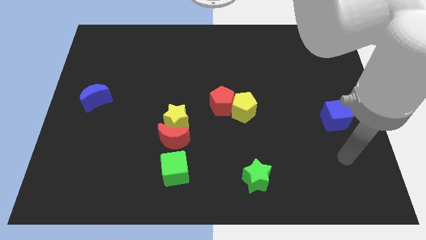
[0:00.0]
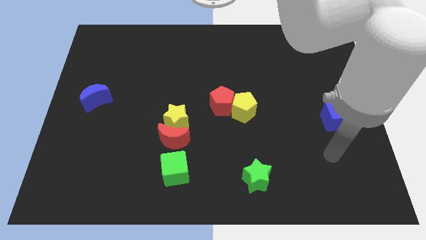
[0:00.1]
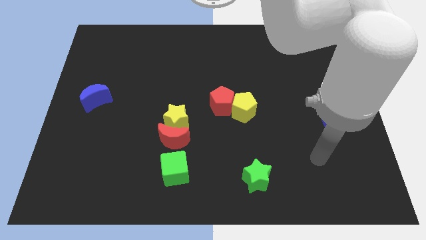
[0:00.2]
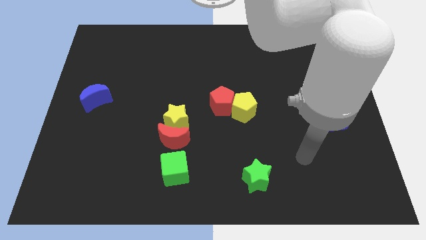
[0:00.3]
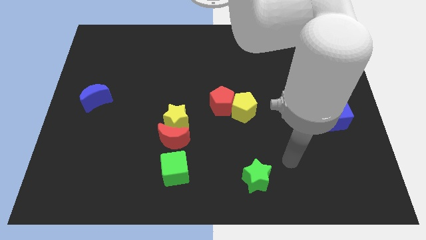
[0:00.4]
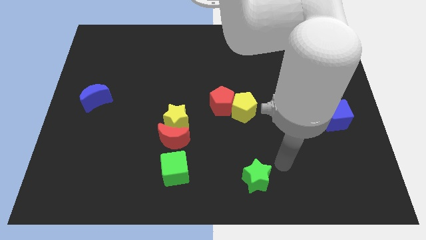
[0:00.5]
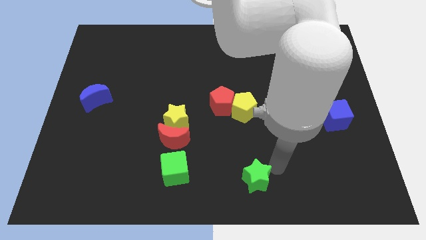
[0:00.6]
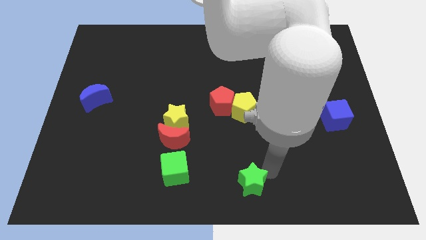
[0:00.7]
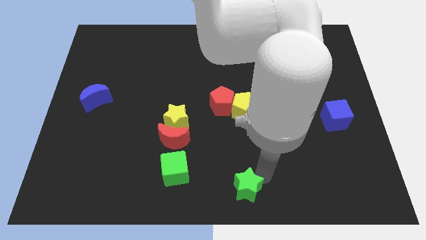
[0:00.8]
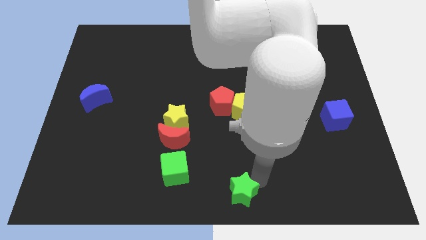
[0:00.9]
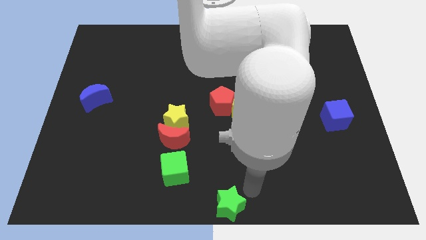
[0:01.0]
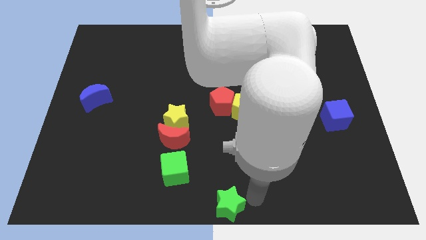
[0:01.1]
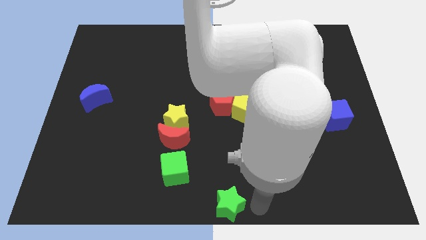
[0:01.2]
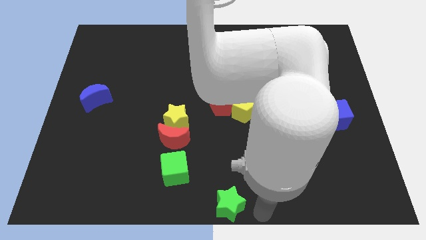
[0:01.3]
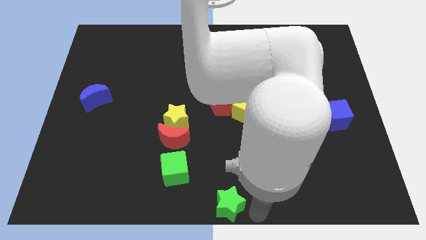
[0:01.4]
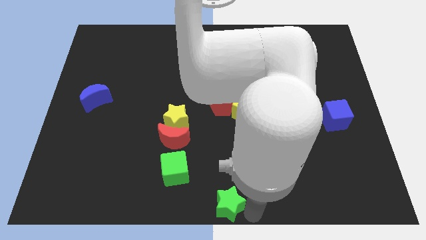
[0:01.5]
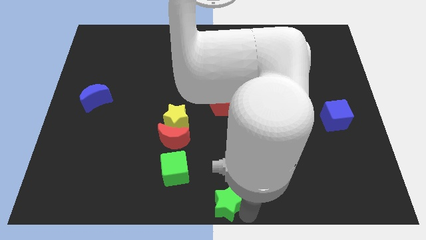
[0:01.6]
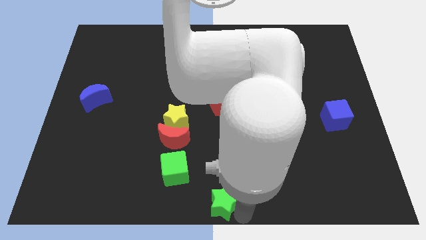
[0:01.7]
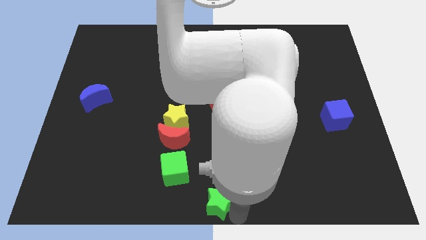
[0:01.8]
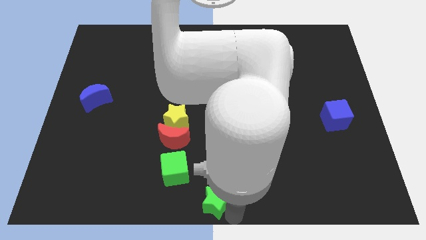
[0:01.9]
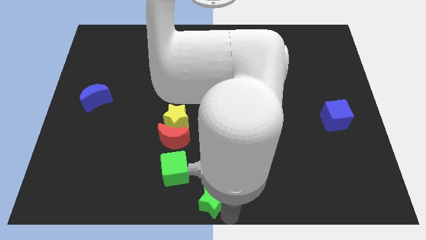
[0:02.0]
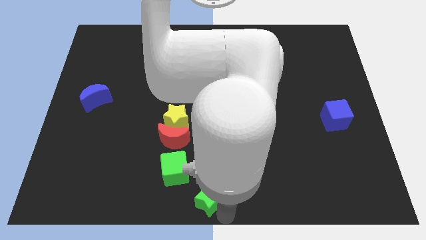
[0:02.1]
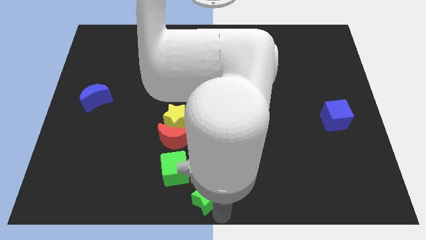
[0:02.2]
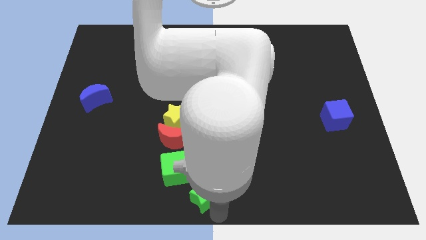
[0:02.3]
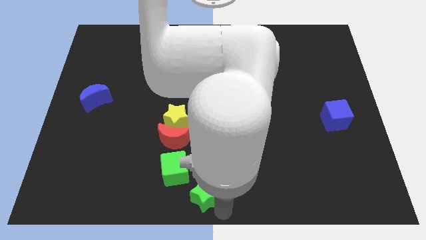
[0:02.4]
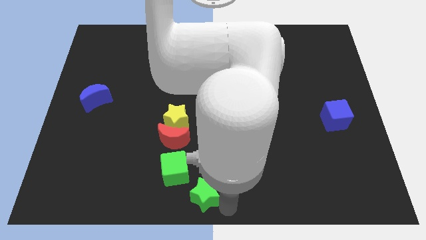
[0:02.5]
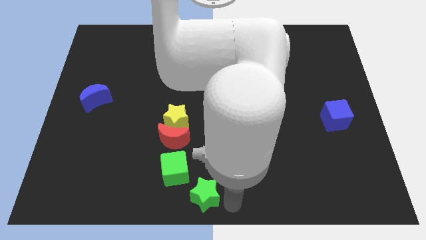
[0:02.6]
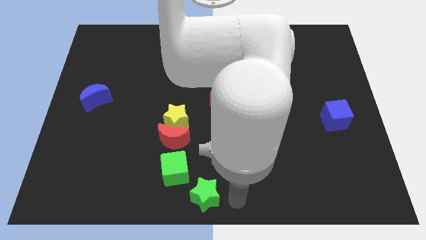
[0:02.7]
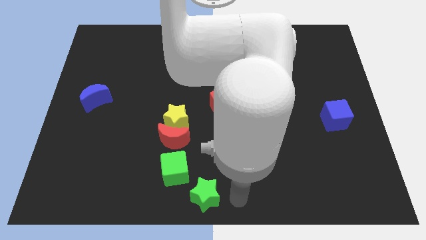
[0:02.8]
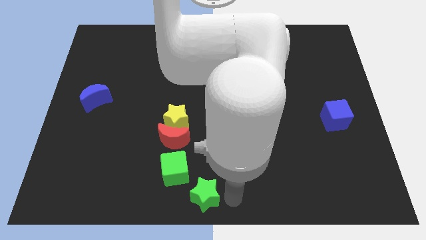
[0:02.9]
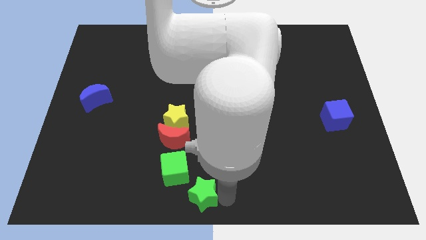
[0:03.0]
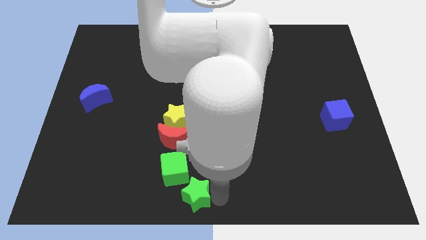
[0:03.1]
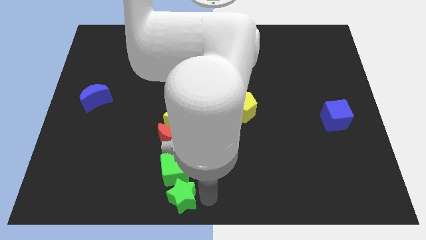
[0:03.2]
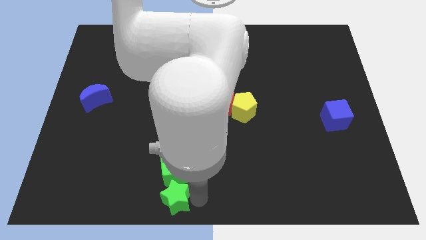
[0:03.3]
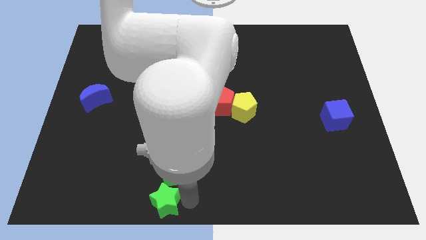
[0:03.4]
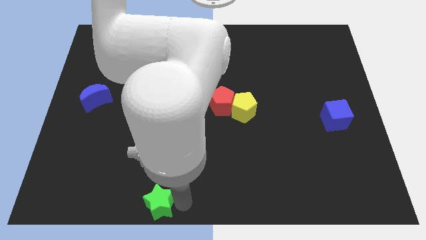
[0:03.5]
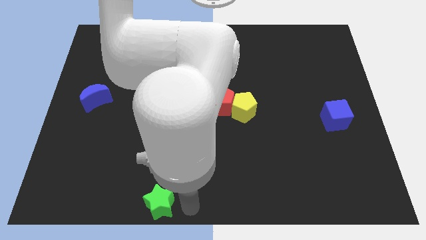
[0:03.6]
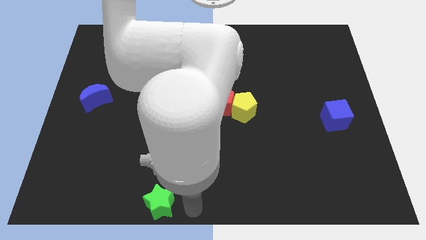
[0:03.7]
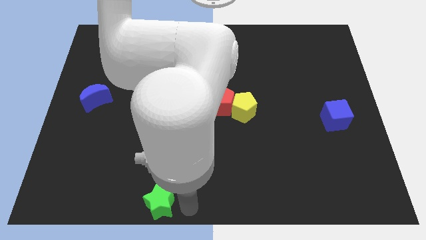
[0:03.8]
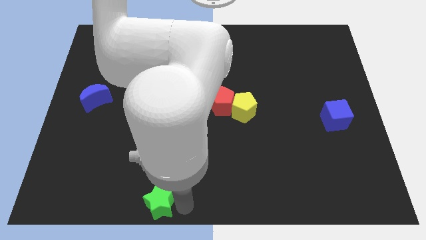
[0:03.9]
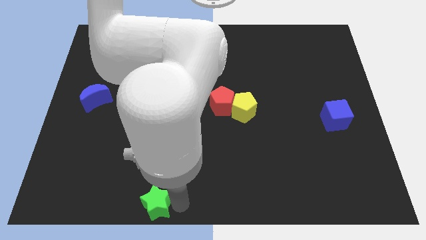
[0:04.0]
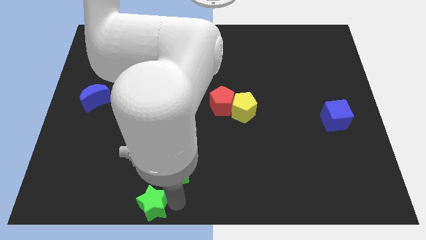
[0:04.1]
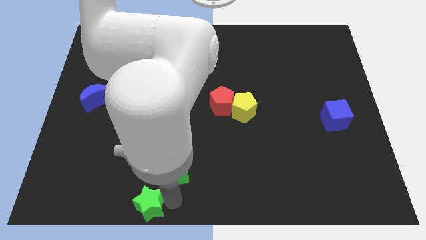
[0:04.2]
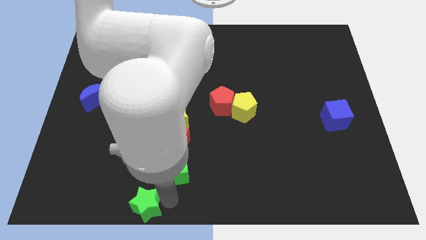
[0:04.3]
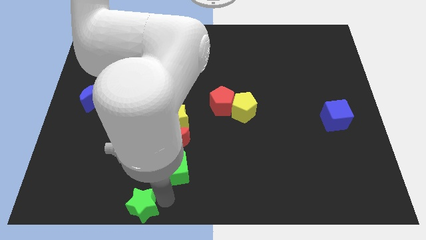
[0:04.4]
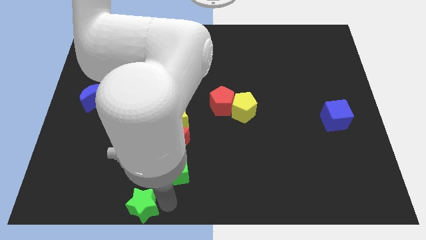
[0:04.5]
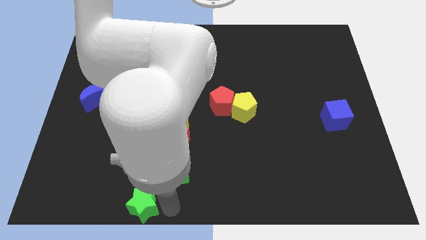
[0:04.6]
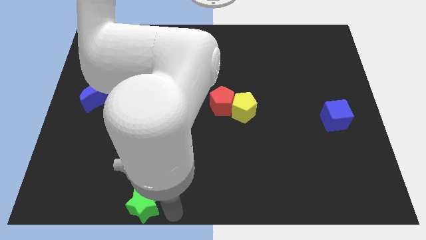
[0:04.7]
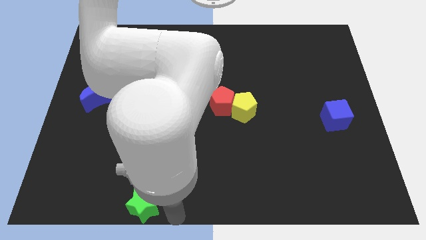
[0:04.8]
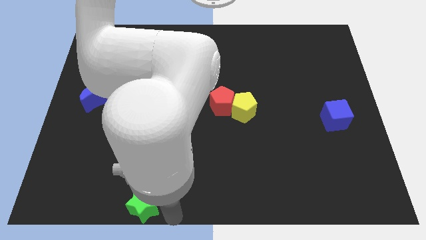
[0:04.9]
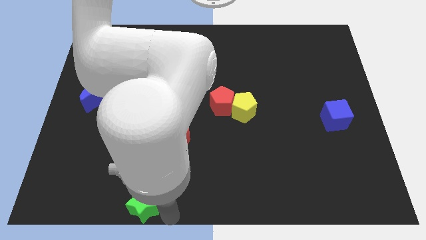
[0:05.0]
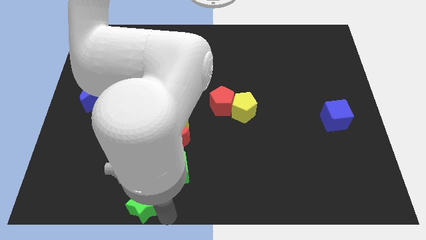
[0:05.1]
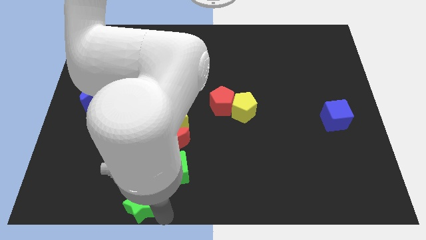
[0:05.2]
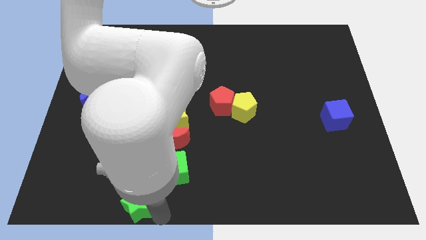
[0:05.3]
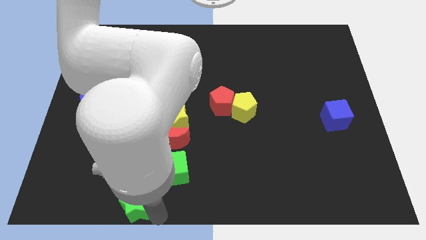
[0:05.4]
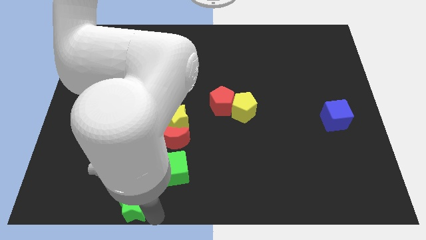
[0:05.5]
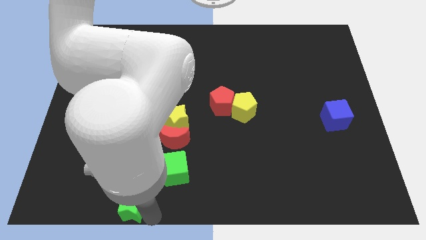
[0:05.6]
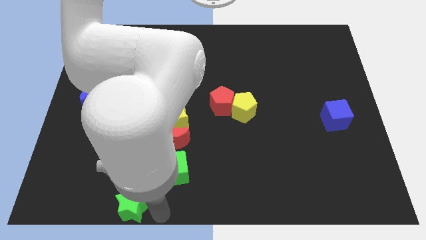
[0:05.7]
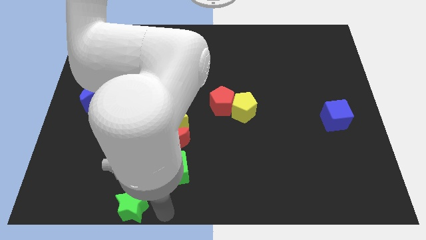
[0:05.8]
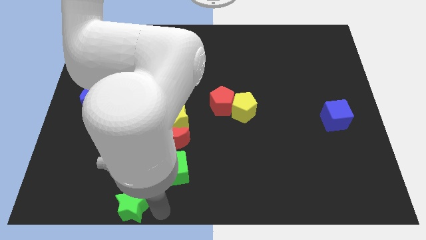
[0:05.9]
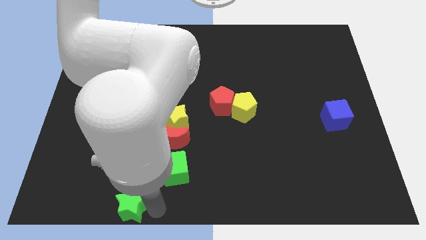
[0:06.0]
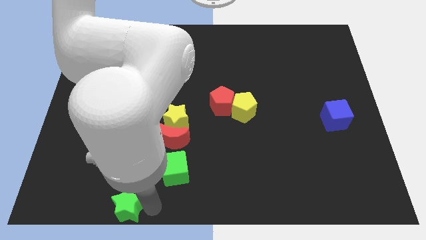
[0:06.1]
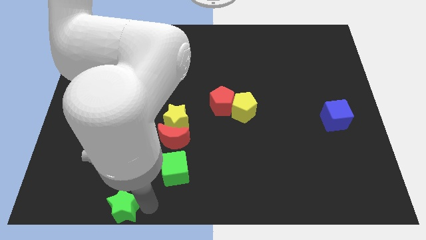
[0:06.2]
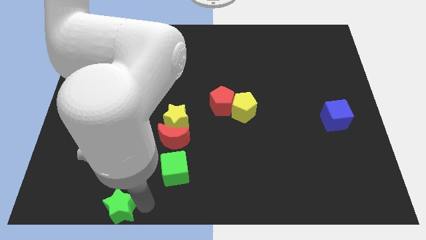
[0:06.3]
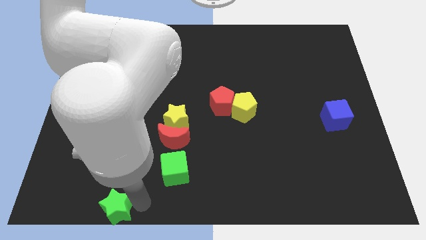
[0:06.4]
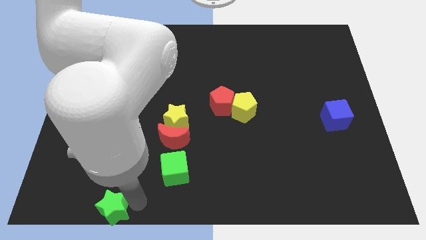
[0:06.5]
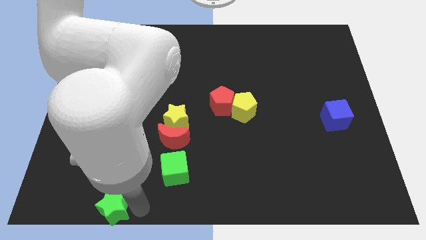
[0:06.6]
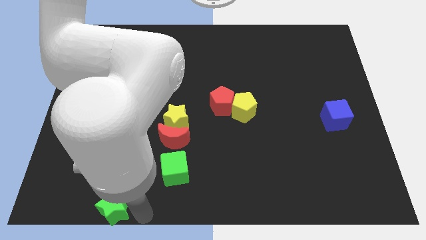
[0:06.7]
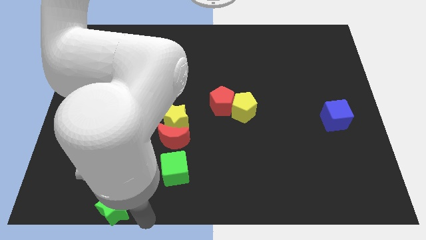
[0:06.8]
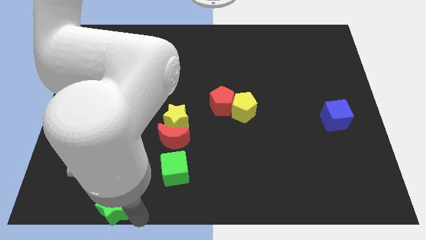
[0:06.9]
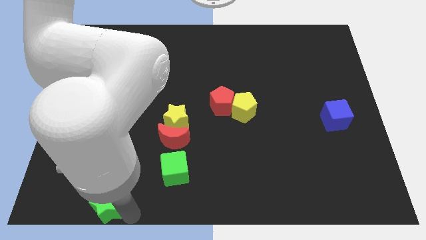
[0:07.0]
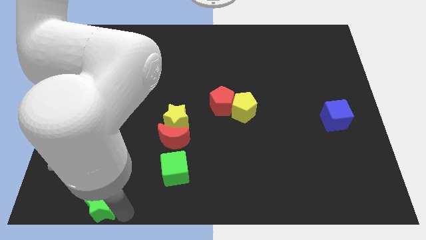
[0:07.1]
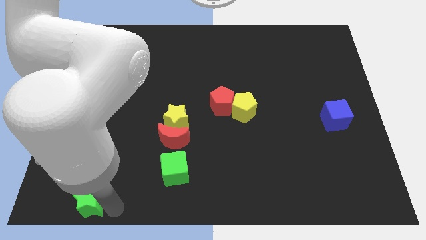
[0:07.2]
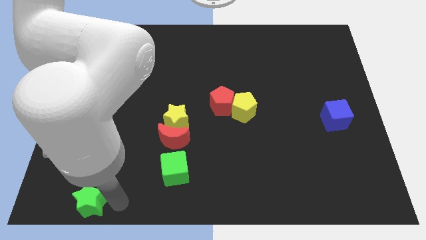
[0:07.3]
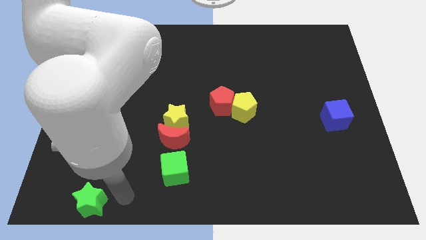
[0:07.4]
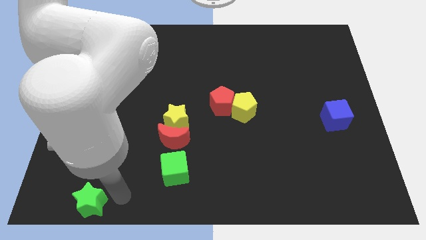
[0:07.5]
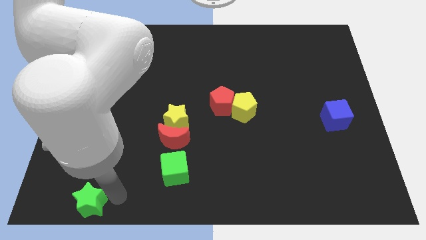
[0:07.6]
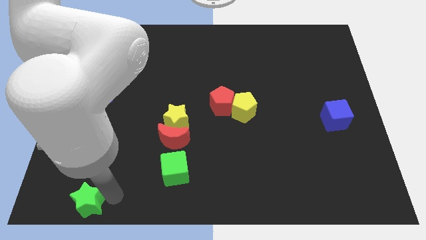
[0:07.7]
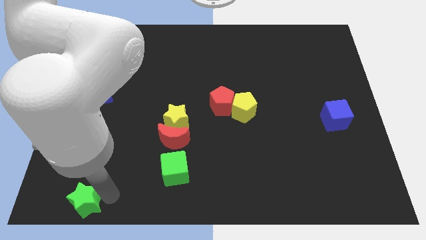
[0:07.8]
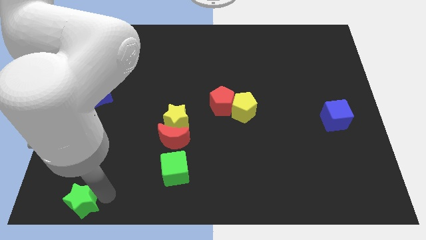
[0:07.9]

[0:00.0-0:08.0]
move the green star to the bottom left
